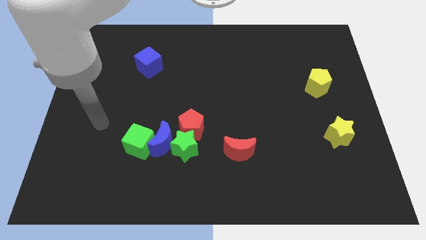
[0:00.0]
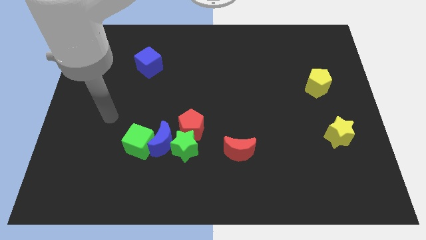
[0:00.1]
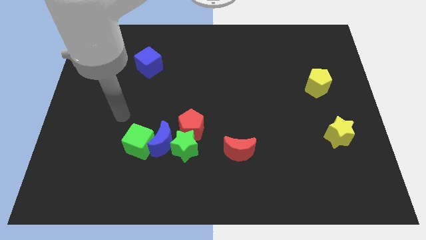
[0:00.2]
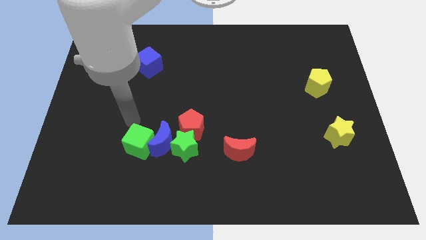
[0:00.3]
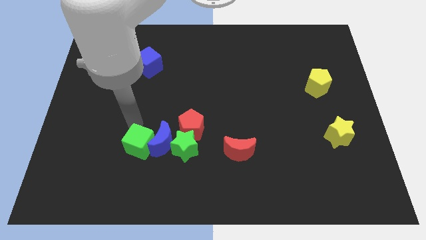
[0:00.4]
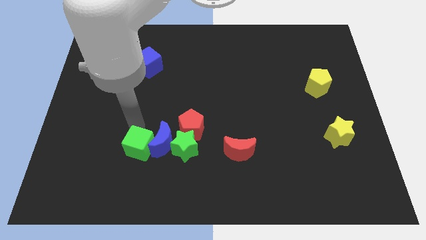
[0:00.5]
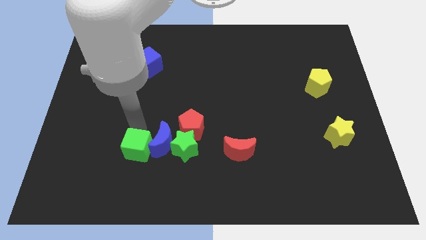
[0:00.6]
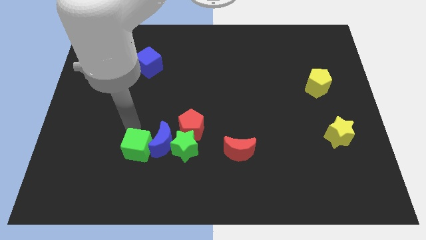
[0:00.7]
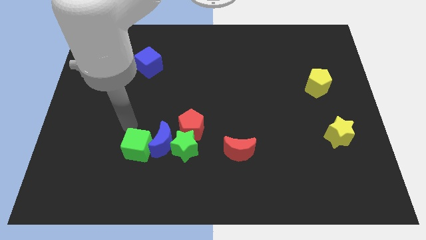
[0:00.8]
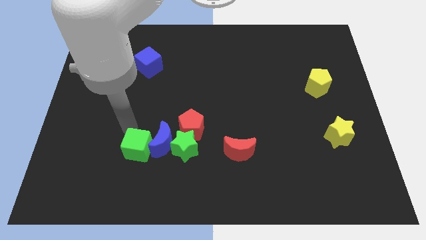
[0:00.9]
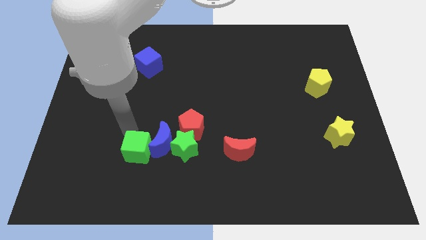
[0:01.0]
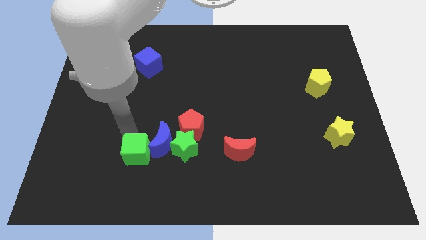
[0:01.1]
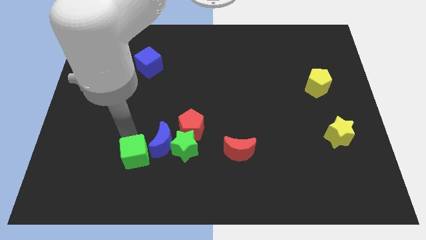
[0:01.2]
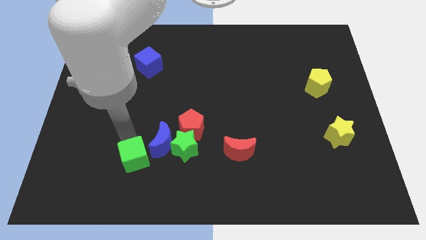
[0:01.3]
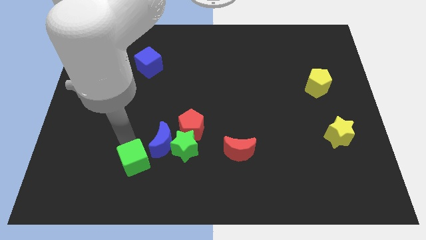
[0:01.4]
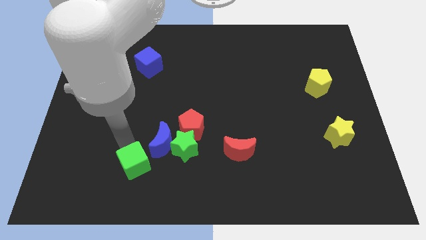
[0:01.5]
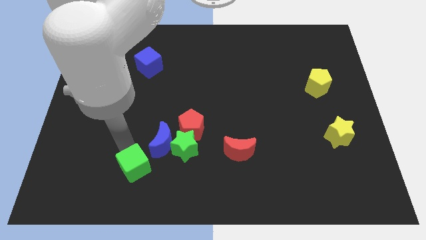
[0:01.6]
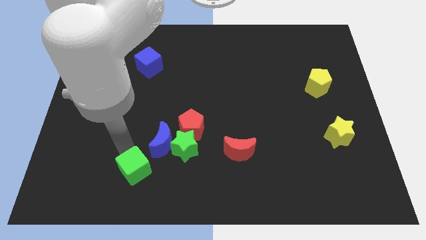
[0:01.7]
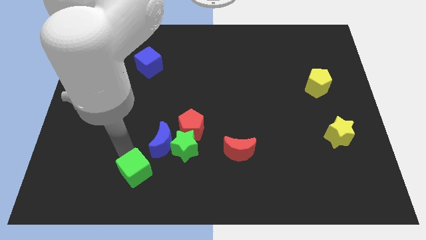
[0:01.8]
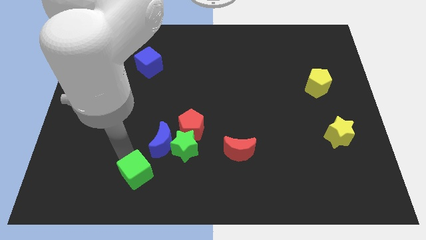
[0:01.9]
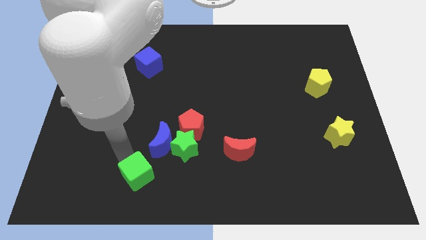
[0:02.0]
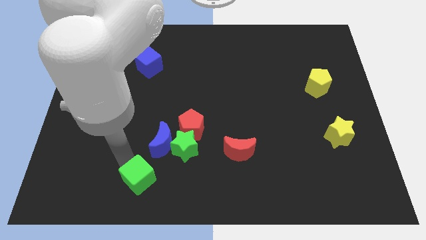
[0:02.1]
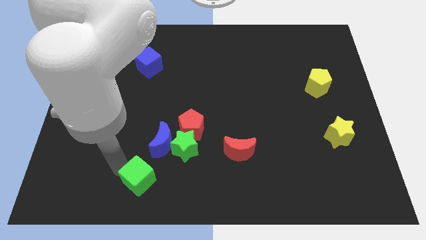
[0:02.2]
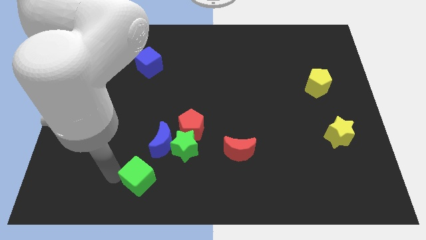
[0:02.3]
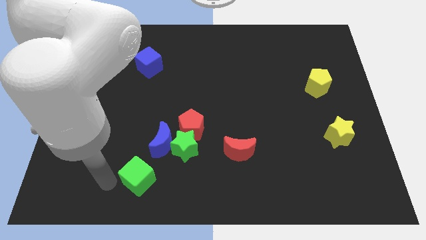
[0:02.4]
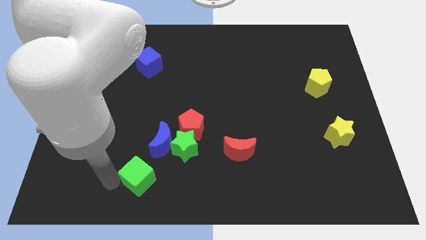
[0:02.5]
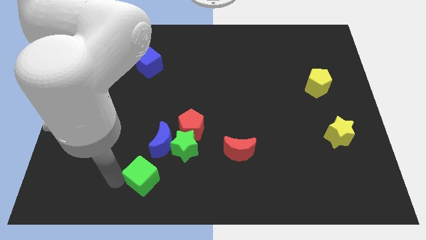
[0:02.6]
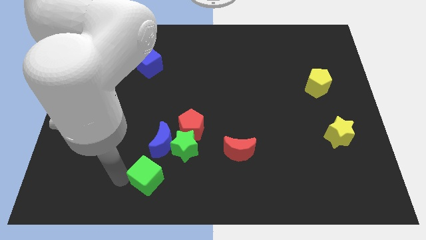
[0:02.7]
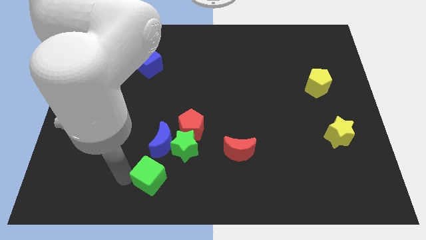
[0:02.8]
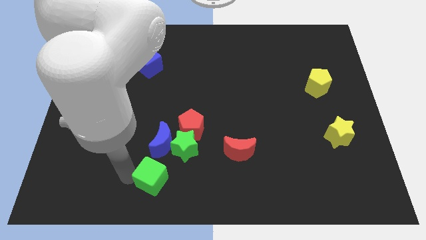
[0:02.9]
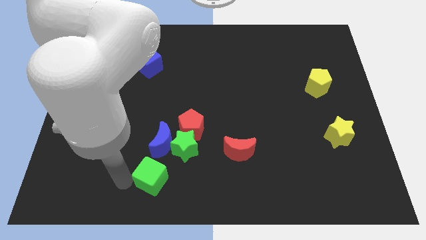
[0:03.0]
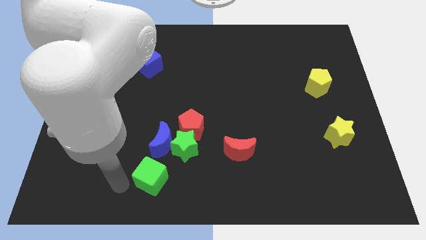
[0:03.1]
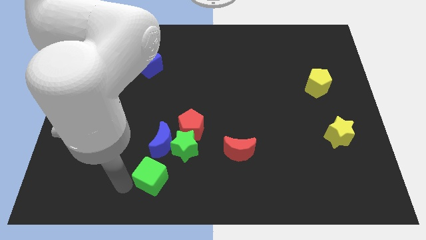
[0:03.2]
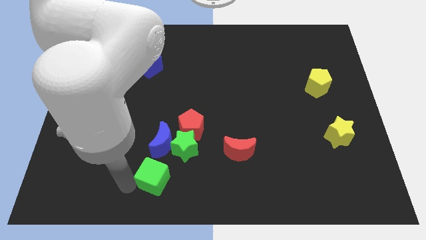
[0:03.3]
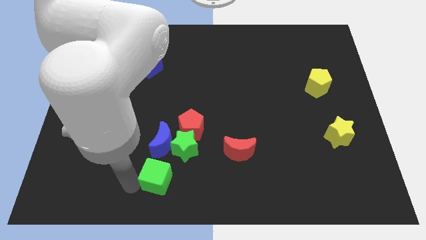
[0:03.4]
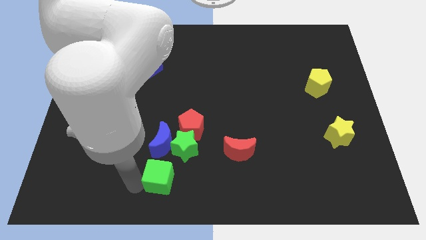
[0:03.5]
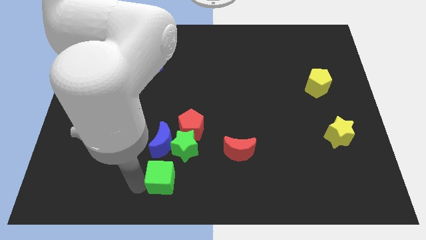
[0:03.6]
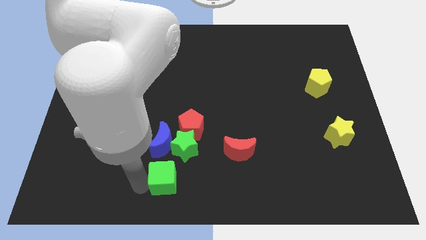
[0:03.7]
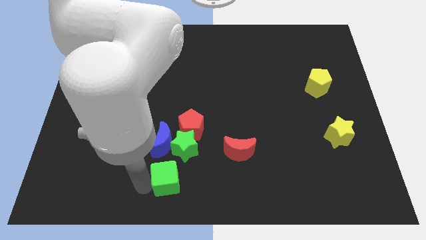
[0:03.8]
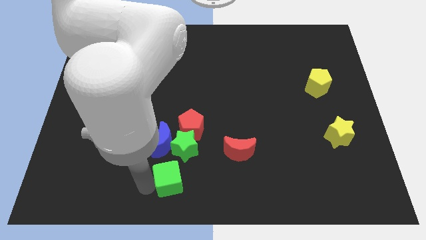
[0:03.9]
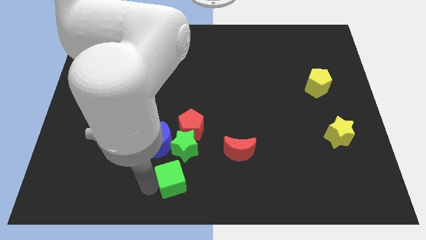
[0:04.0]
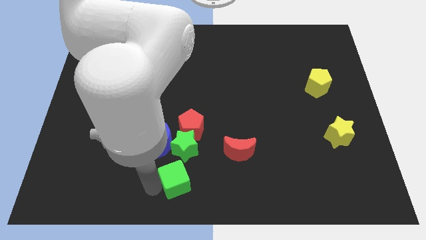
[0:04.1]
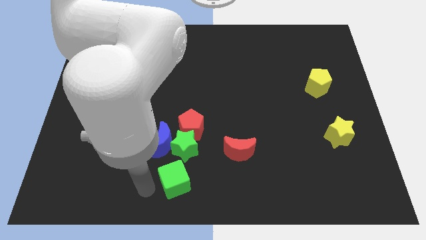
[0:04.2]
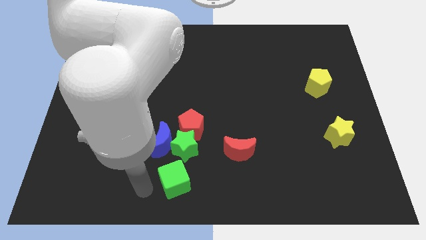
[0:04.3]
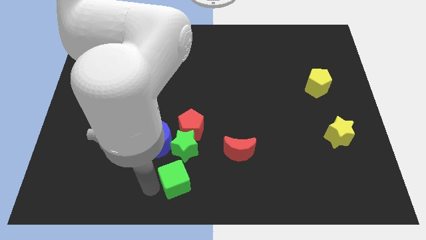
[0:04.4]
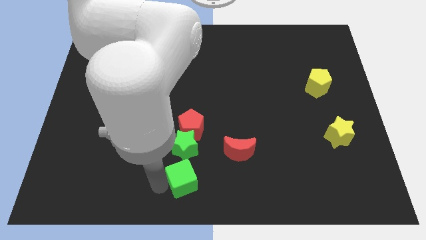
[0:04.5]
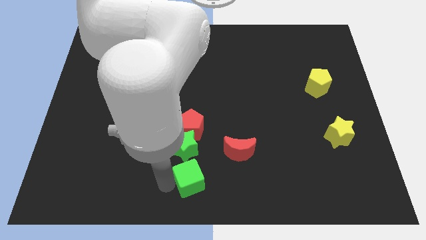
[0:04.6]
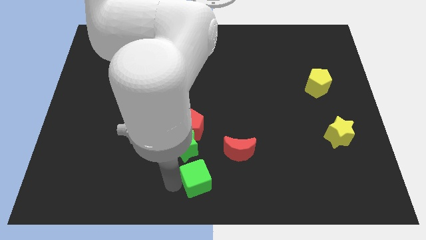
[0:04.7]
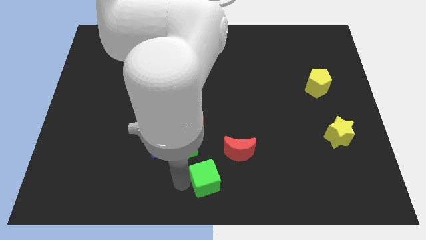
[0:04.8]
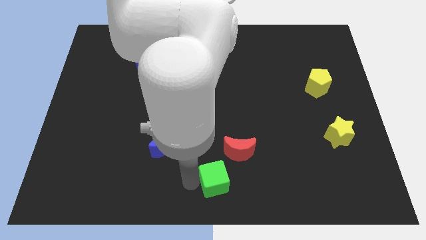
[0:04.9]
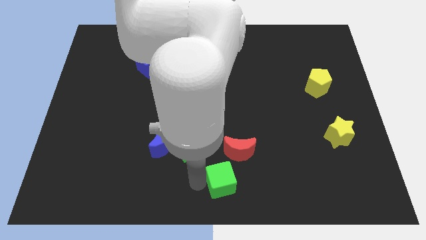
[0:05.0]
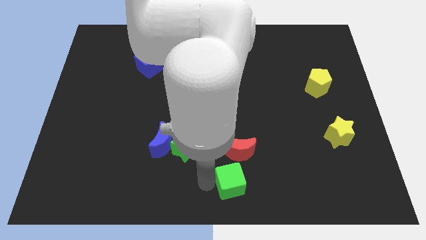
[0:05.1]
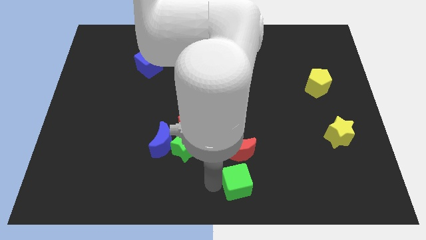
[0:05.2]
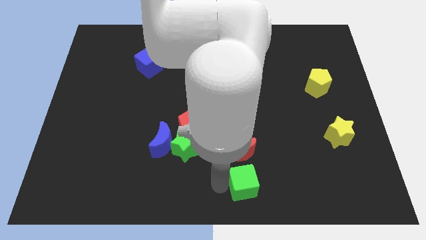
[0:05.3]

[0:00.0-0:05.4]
put the green cube to the bottom right side of the red moon

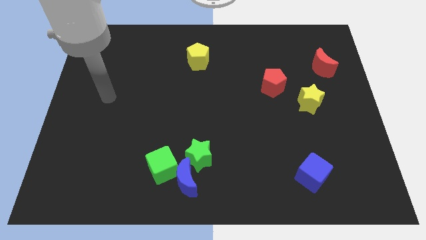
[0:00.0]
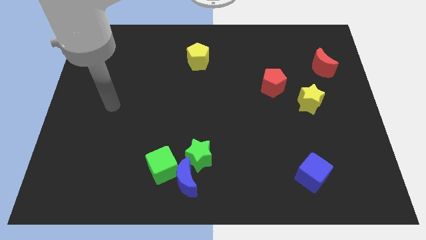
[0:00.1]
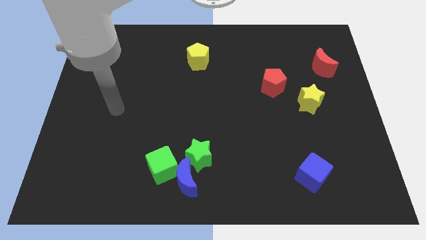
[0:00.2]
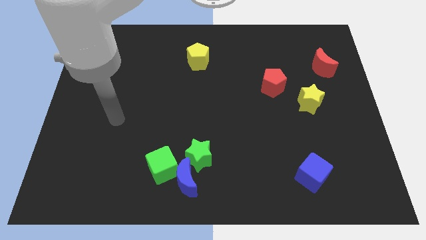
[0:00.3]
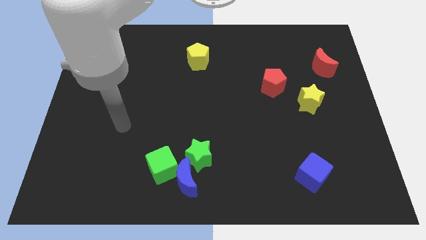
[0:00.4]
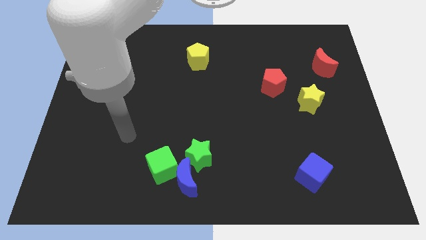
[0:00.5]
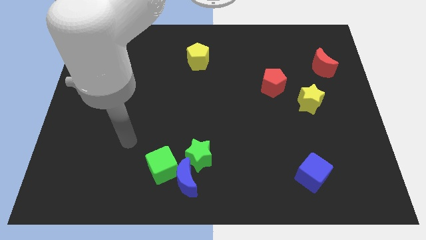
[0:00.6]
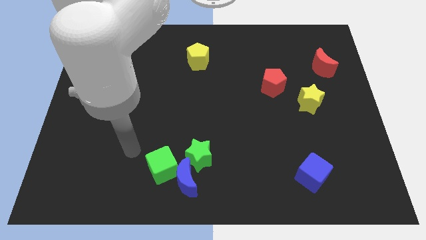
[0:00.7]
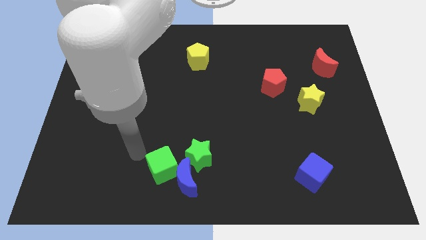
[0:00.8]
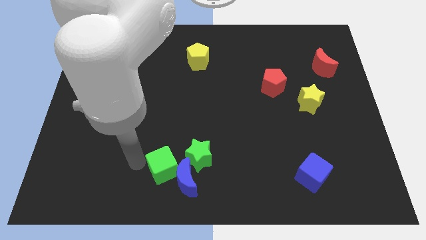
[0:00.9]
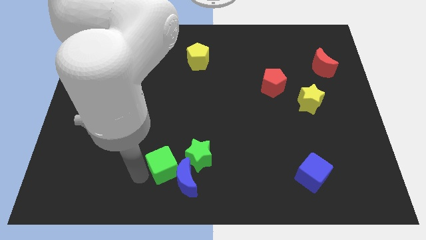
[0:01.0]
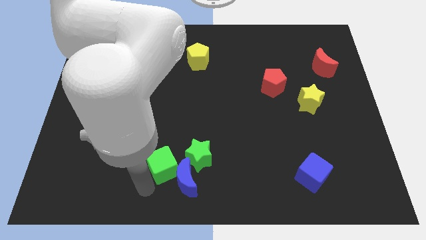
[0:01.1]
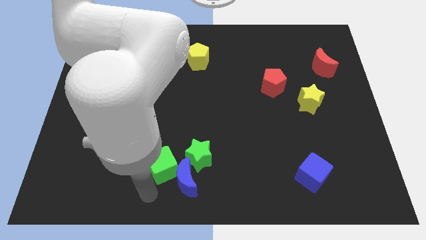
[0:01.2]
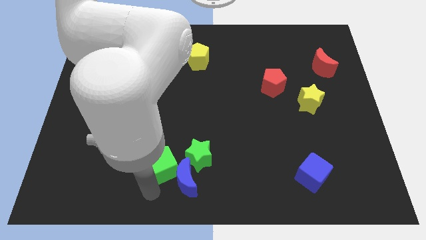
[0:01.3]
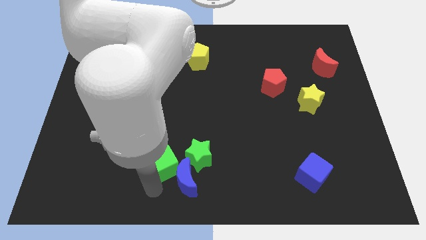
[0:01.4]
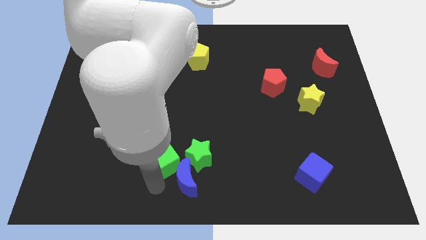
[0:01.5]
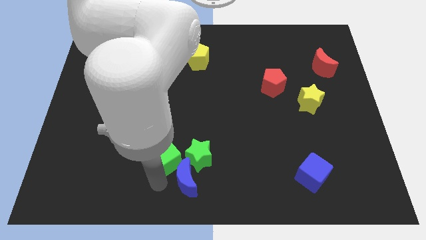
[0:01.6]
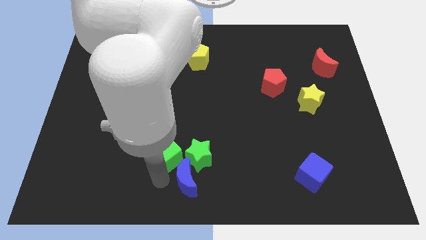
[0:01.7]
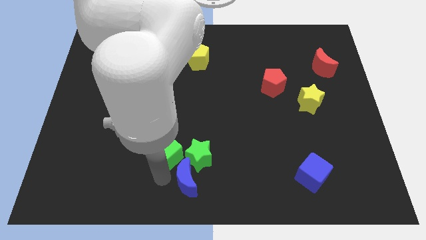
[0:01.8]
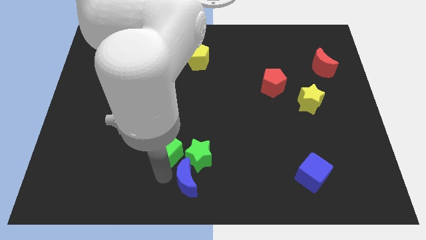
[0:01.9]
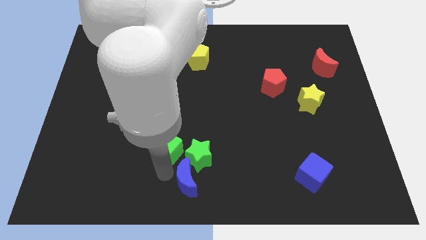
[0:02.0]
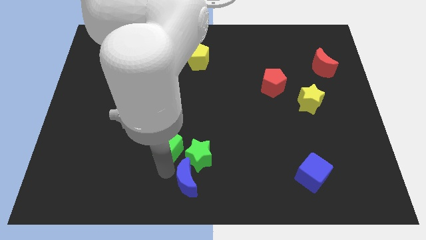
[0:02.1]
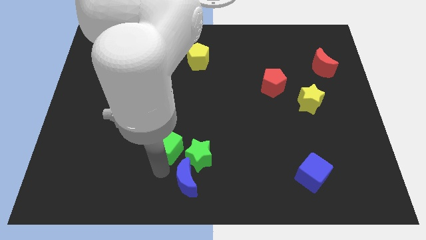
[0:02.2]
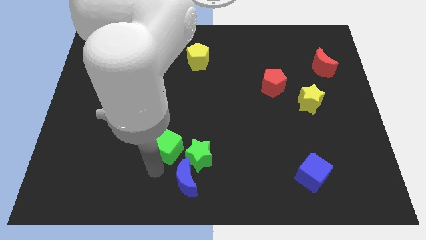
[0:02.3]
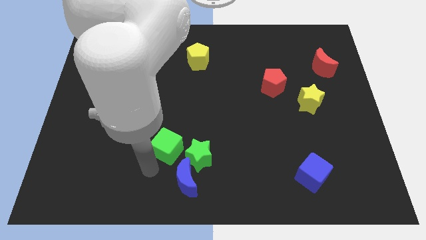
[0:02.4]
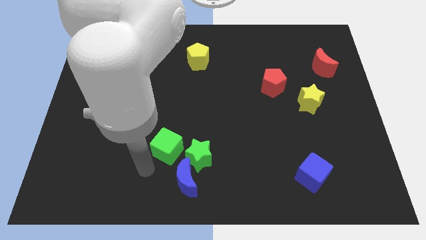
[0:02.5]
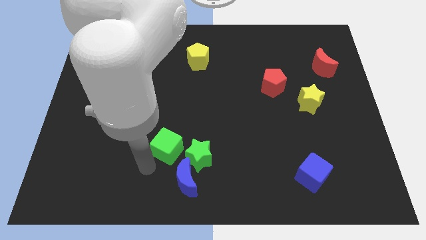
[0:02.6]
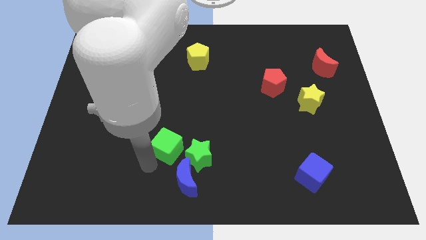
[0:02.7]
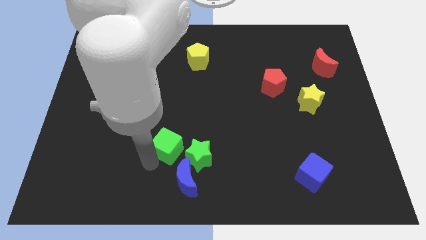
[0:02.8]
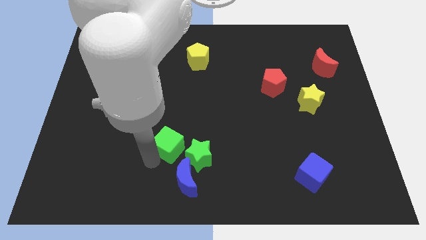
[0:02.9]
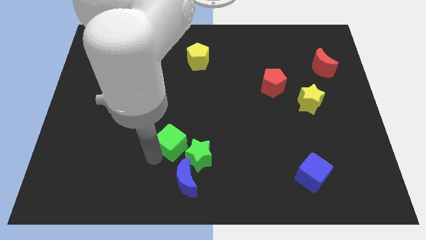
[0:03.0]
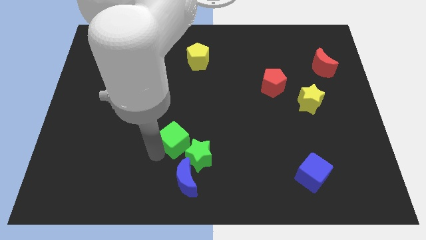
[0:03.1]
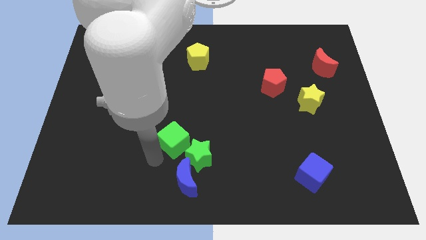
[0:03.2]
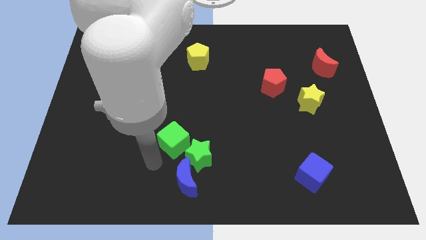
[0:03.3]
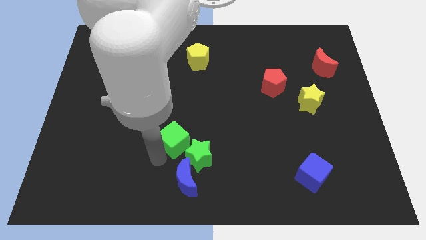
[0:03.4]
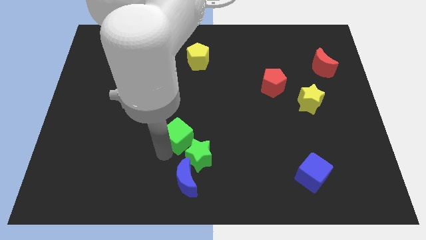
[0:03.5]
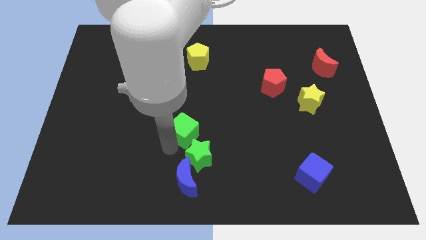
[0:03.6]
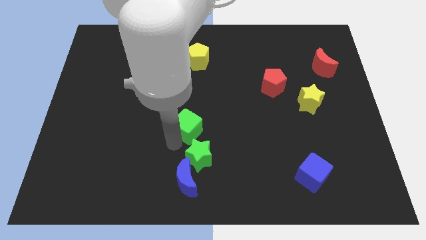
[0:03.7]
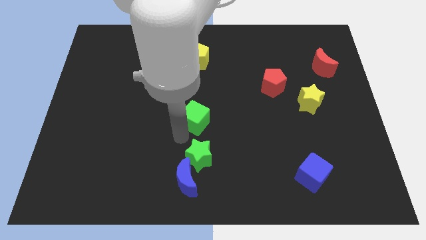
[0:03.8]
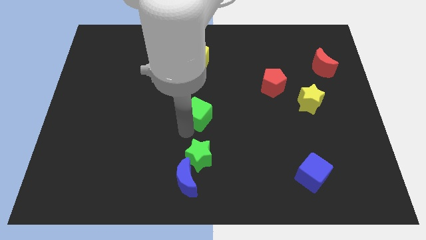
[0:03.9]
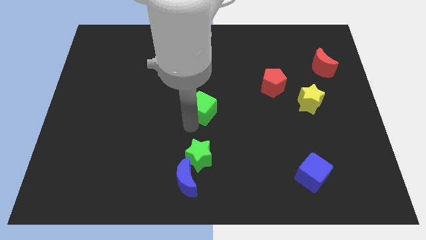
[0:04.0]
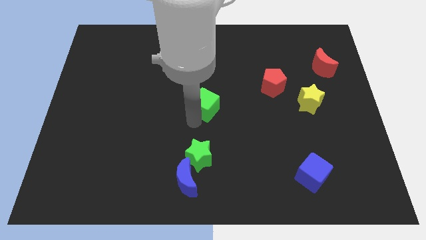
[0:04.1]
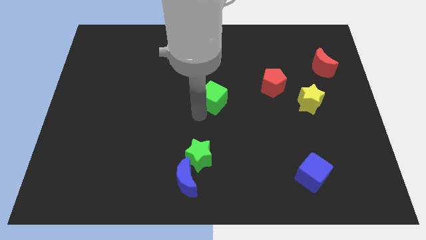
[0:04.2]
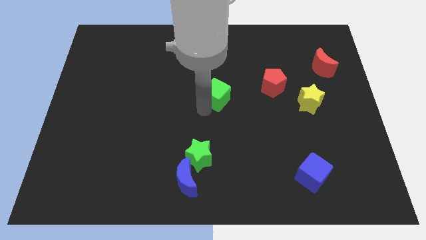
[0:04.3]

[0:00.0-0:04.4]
move the green cube to the left side of the red pentagon
